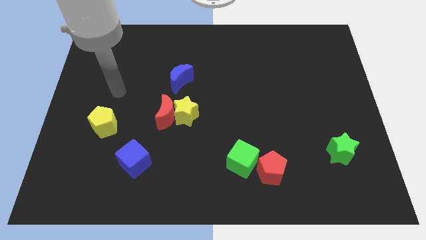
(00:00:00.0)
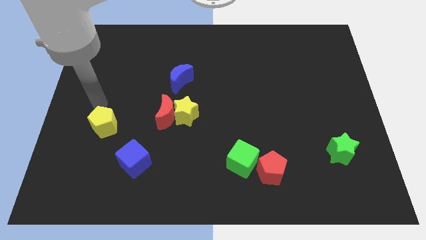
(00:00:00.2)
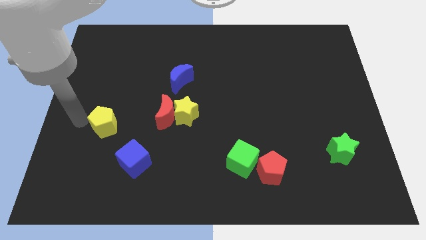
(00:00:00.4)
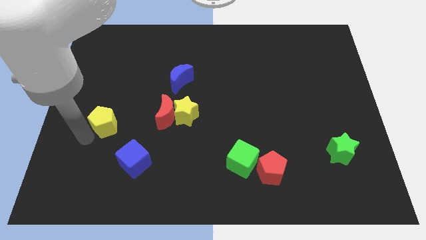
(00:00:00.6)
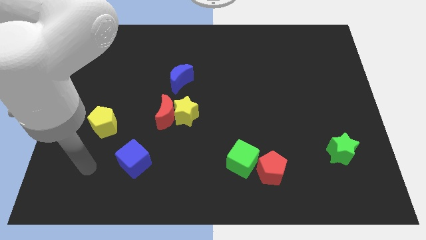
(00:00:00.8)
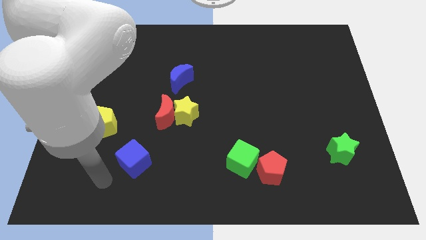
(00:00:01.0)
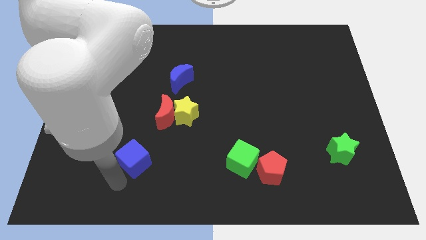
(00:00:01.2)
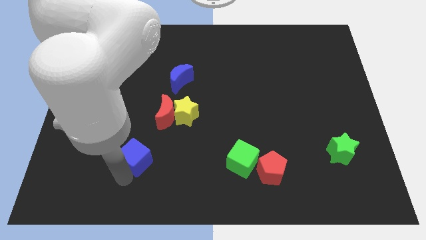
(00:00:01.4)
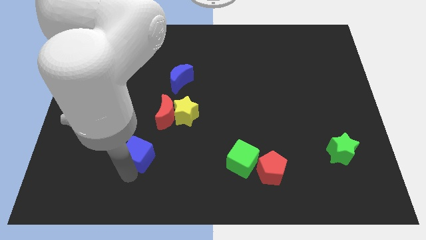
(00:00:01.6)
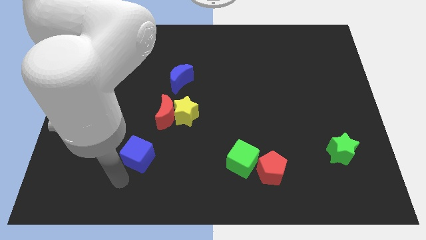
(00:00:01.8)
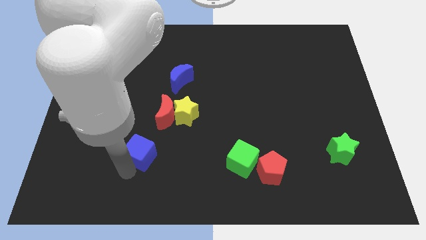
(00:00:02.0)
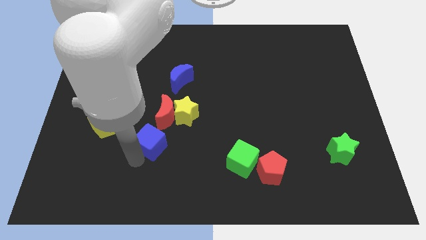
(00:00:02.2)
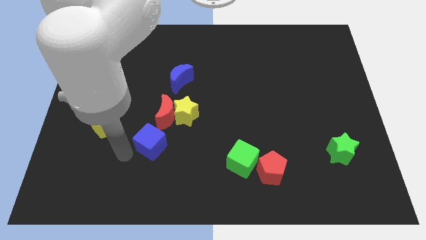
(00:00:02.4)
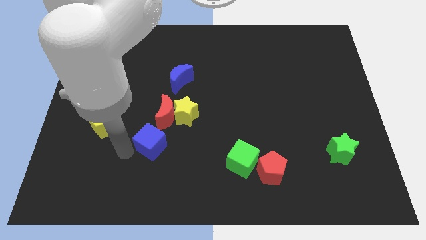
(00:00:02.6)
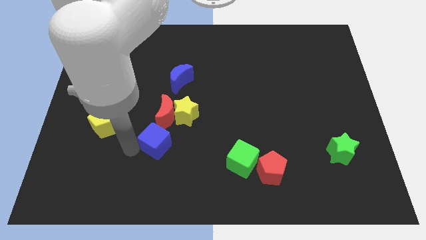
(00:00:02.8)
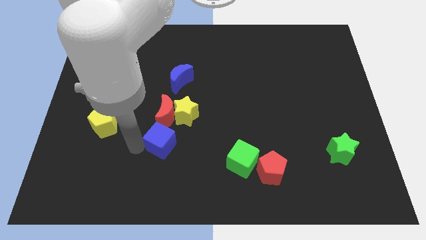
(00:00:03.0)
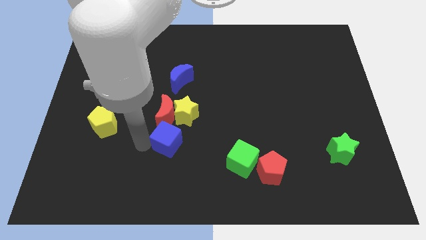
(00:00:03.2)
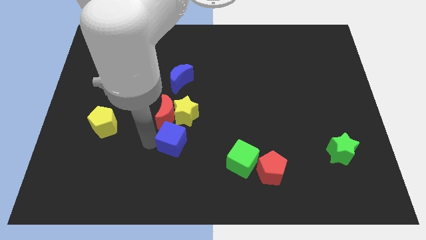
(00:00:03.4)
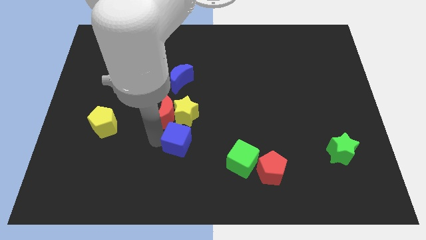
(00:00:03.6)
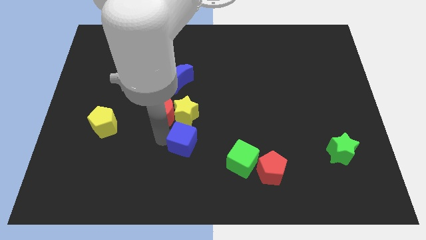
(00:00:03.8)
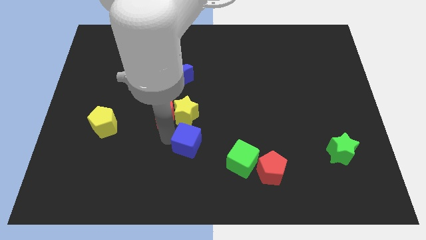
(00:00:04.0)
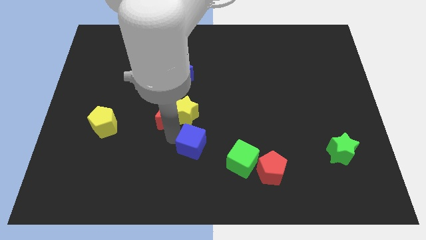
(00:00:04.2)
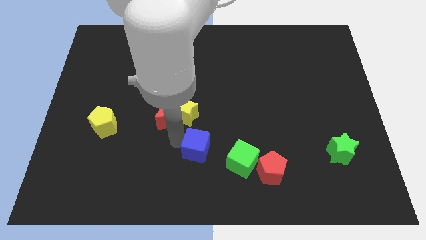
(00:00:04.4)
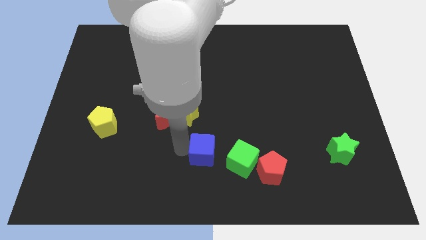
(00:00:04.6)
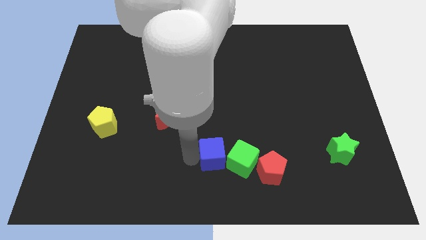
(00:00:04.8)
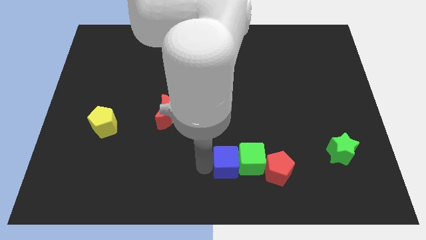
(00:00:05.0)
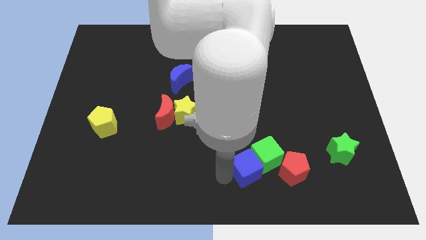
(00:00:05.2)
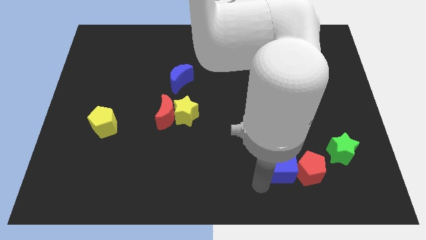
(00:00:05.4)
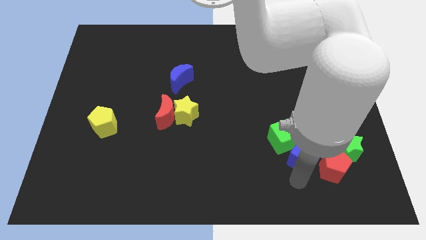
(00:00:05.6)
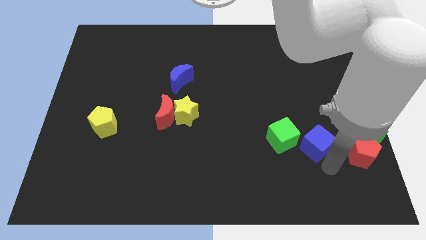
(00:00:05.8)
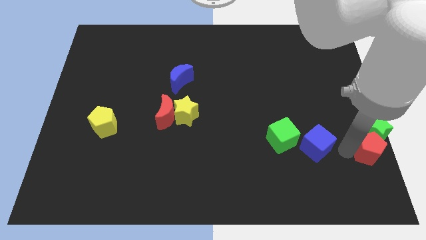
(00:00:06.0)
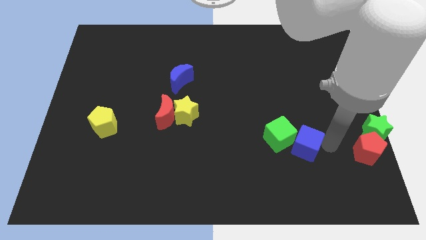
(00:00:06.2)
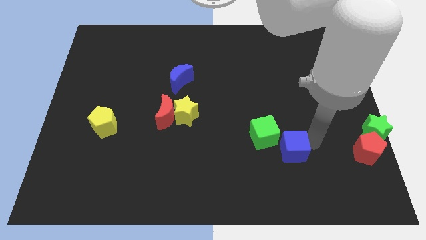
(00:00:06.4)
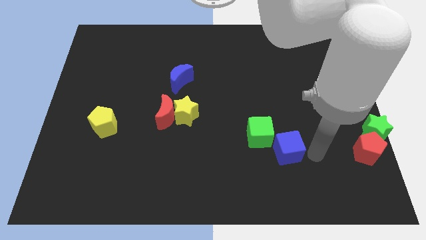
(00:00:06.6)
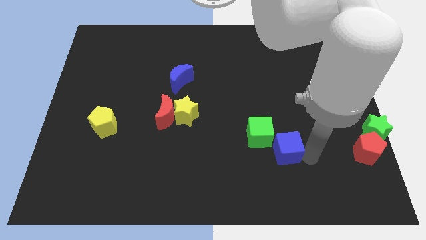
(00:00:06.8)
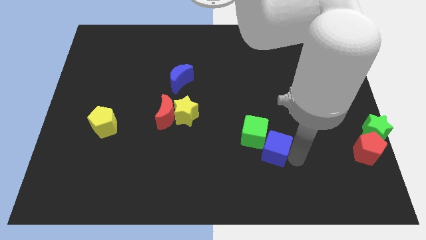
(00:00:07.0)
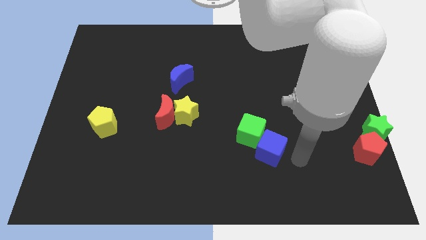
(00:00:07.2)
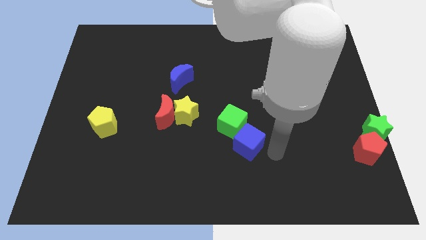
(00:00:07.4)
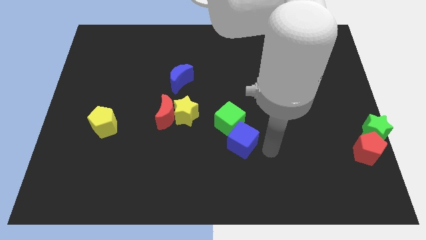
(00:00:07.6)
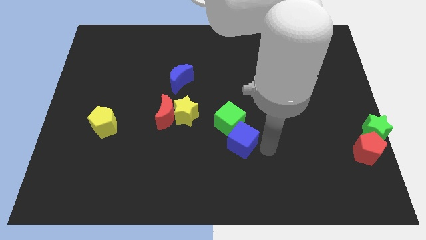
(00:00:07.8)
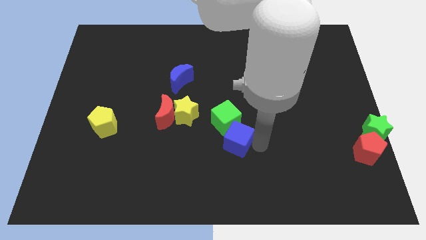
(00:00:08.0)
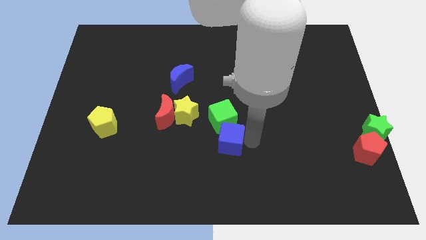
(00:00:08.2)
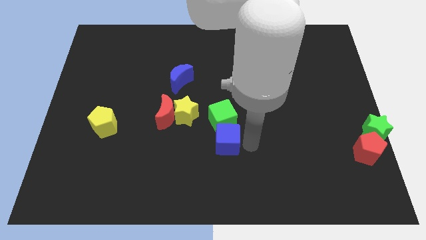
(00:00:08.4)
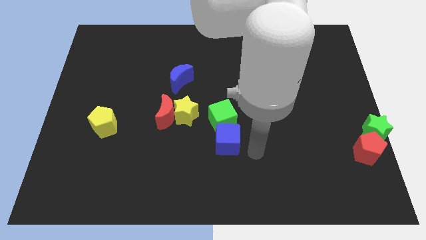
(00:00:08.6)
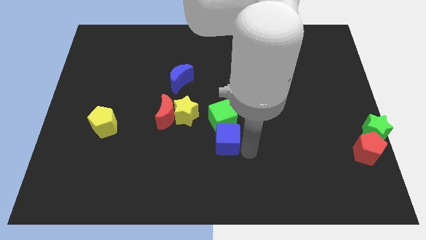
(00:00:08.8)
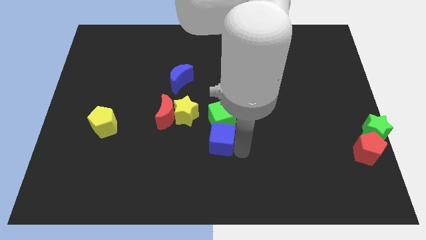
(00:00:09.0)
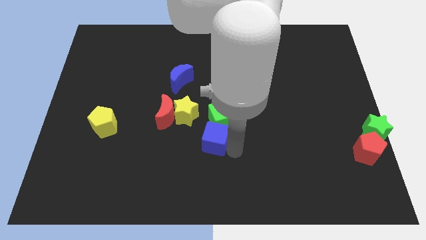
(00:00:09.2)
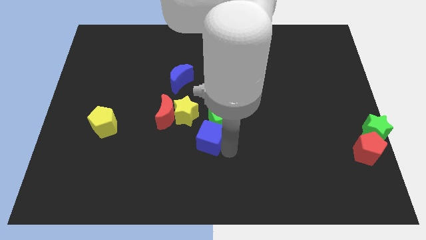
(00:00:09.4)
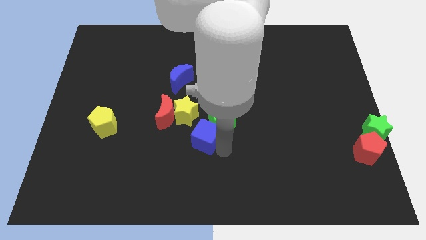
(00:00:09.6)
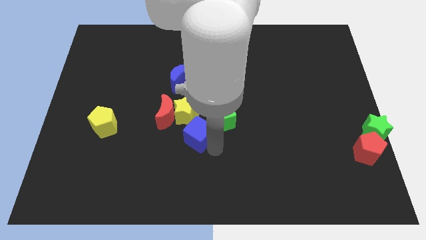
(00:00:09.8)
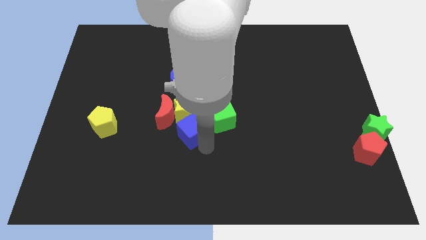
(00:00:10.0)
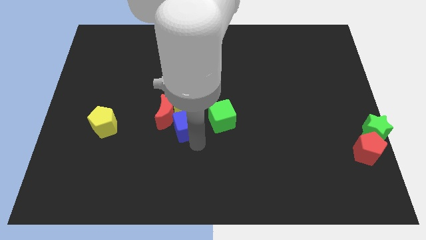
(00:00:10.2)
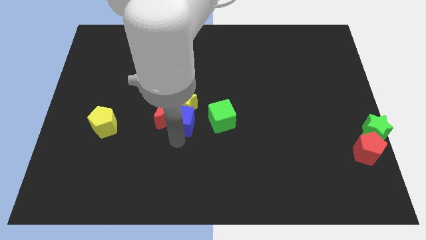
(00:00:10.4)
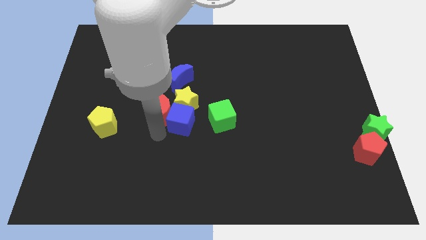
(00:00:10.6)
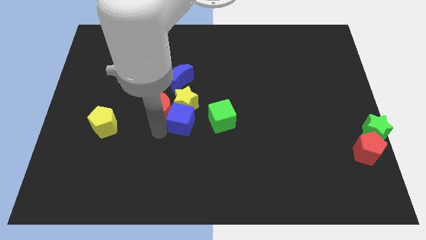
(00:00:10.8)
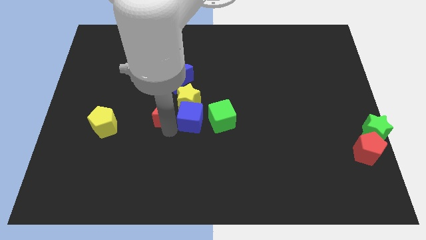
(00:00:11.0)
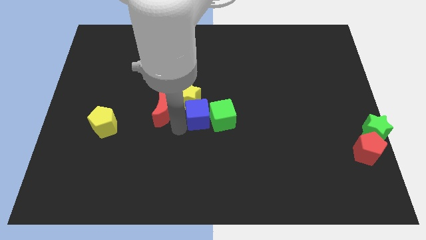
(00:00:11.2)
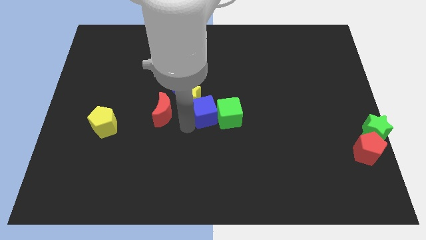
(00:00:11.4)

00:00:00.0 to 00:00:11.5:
move the blue cube just right of the yellow star

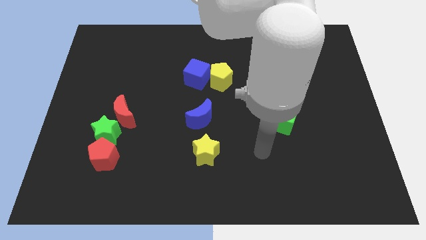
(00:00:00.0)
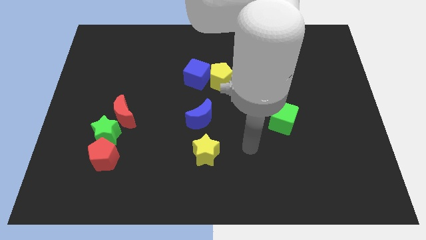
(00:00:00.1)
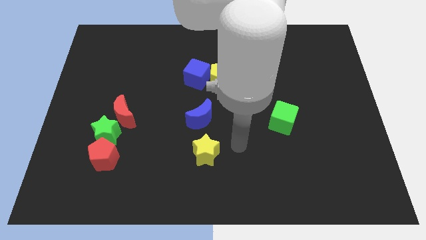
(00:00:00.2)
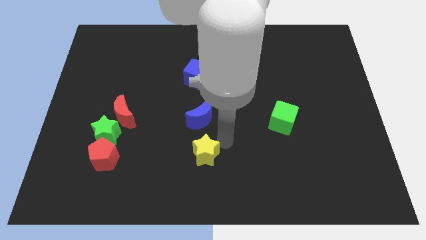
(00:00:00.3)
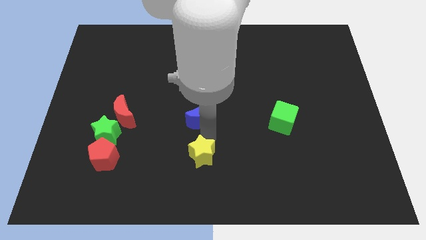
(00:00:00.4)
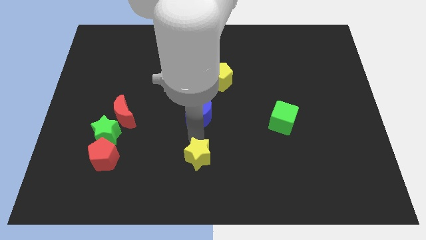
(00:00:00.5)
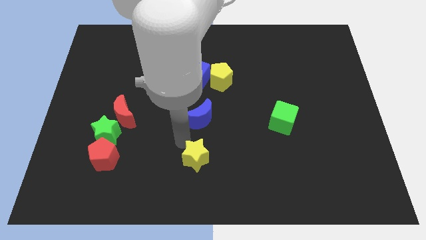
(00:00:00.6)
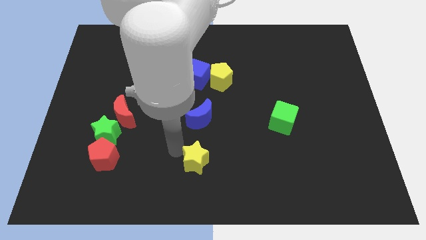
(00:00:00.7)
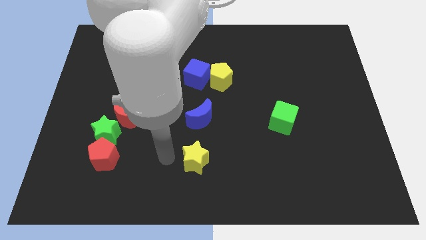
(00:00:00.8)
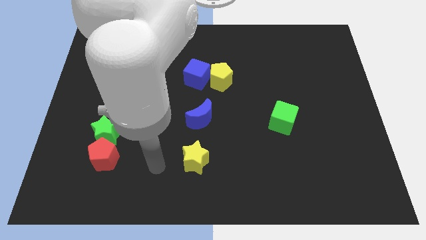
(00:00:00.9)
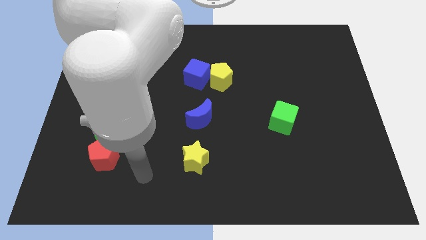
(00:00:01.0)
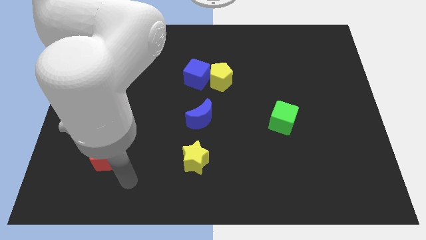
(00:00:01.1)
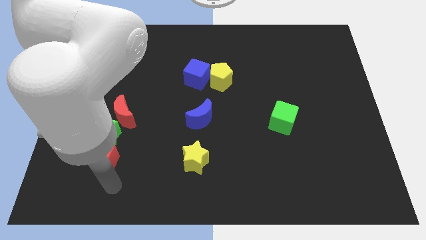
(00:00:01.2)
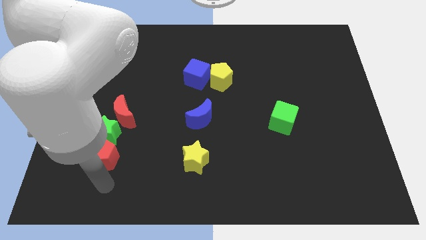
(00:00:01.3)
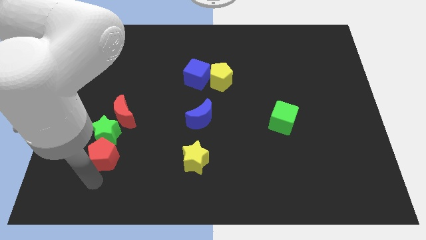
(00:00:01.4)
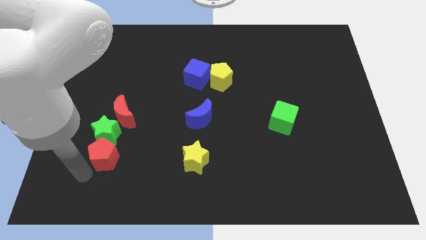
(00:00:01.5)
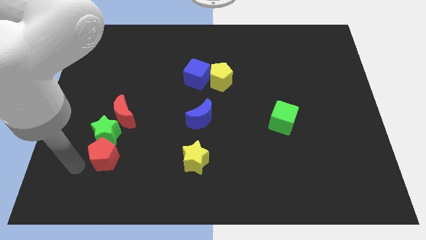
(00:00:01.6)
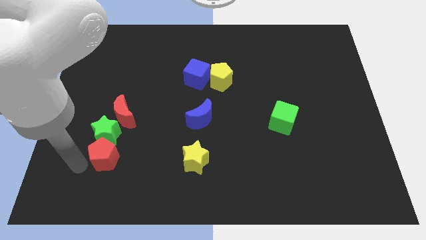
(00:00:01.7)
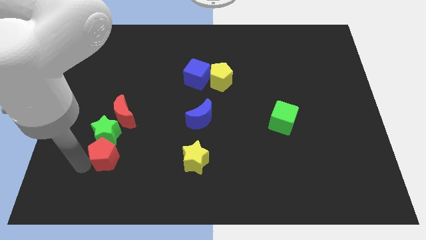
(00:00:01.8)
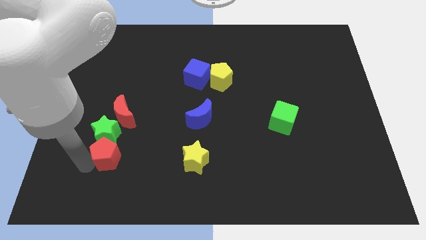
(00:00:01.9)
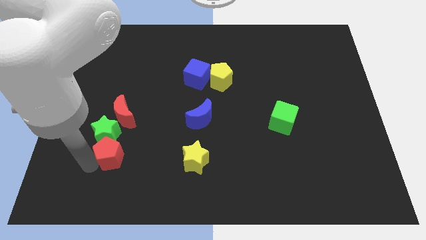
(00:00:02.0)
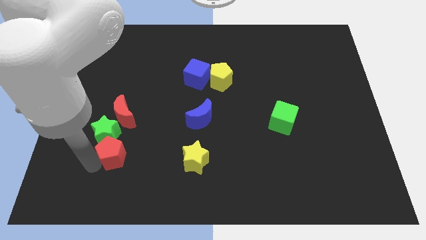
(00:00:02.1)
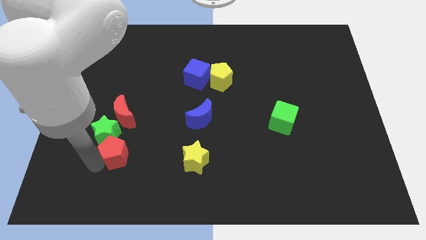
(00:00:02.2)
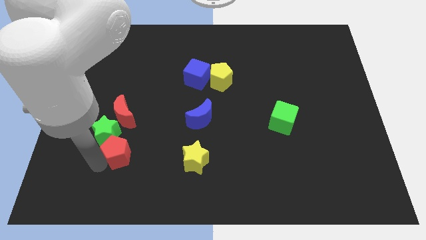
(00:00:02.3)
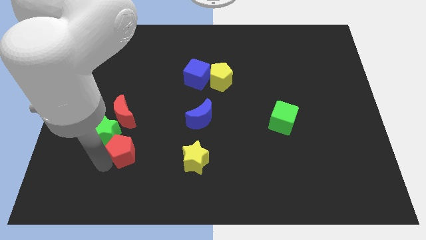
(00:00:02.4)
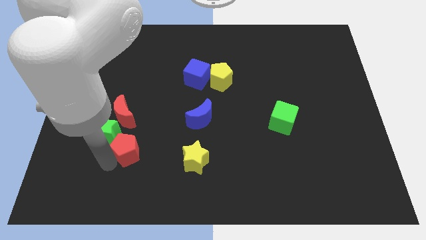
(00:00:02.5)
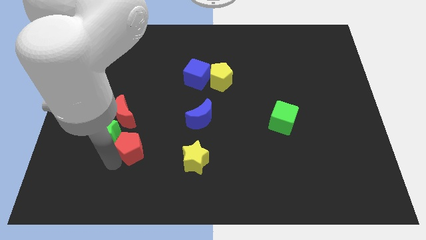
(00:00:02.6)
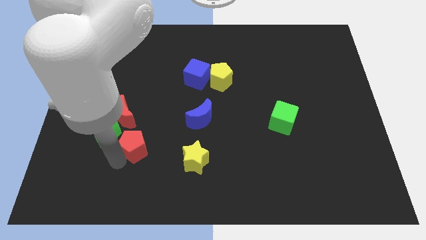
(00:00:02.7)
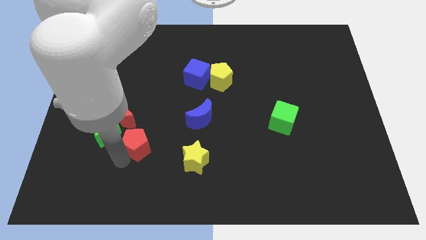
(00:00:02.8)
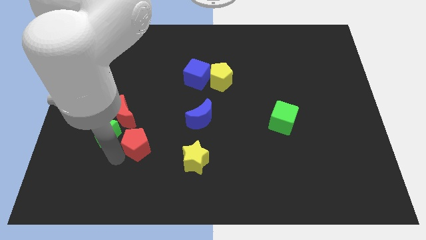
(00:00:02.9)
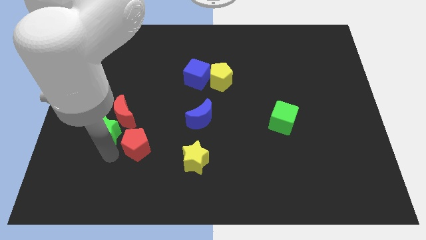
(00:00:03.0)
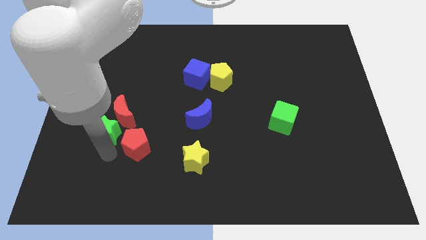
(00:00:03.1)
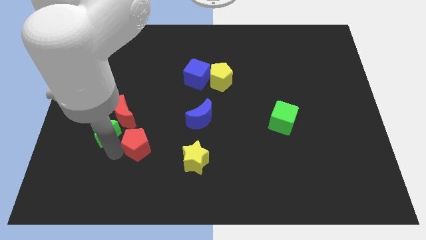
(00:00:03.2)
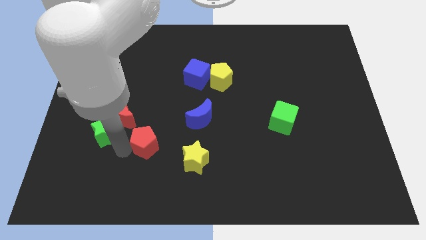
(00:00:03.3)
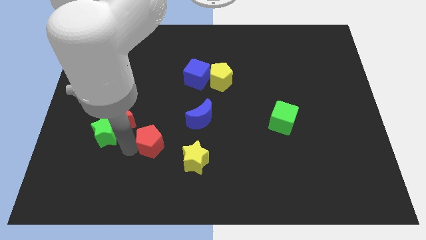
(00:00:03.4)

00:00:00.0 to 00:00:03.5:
move the red pentagon diagonally up and to the left of the yellow star
